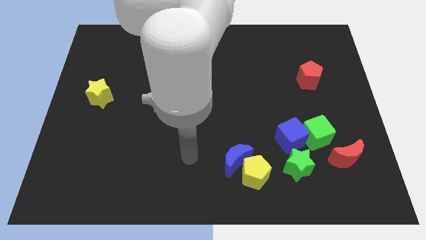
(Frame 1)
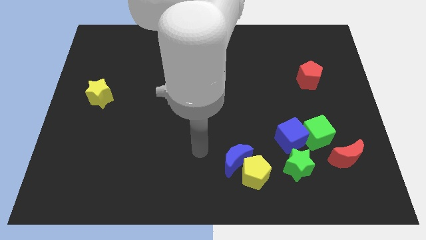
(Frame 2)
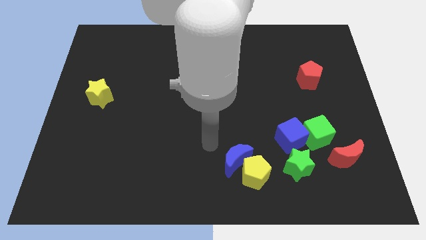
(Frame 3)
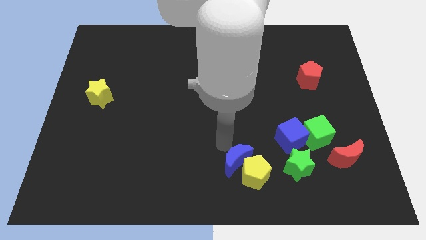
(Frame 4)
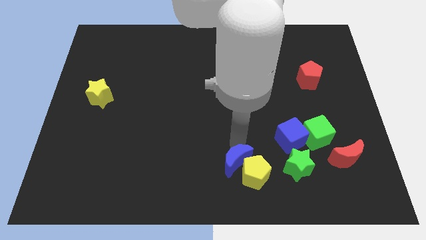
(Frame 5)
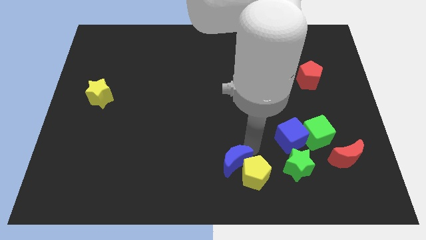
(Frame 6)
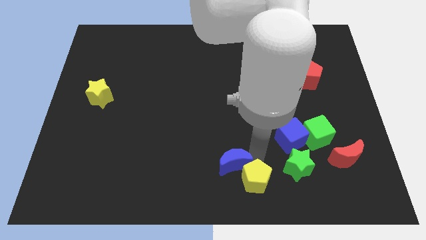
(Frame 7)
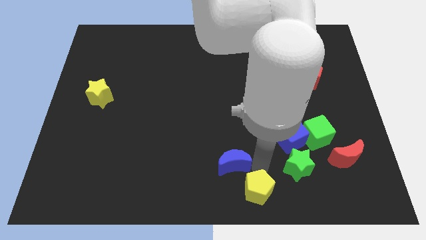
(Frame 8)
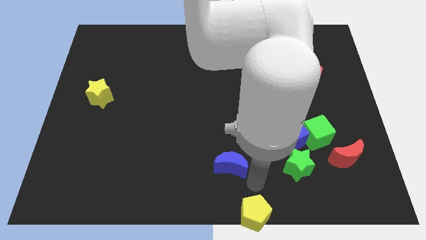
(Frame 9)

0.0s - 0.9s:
move the blue moon away from the yellow pentagon

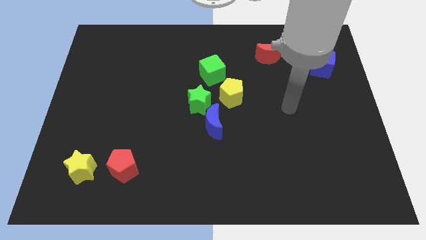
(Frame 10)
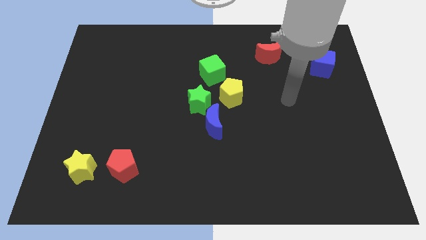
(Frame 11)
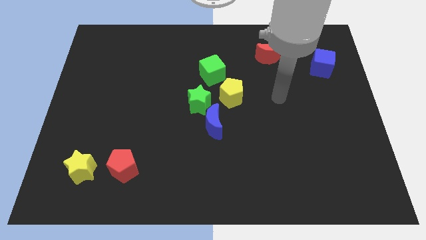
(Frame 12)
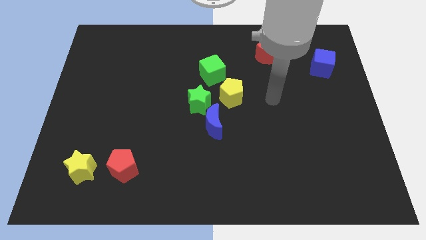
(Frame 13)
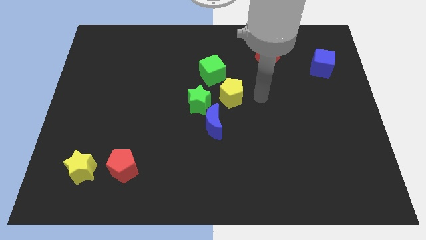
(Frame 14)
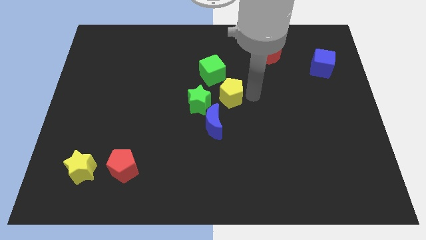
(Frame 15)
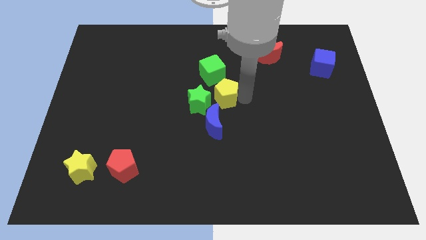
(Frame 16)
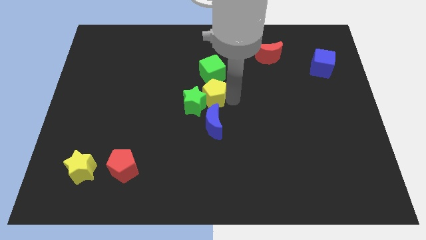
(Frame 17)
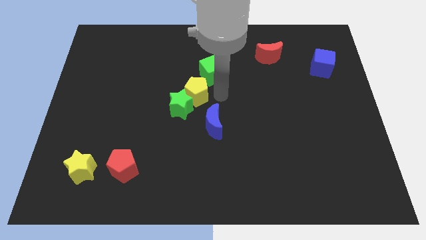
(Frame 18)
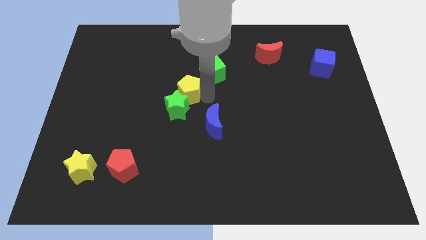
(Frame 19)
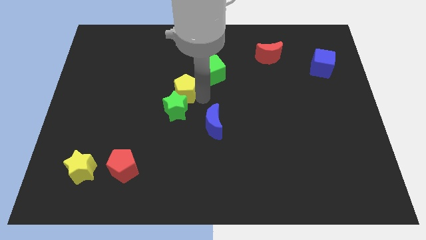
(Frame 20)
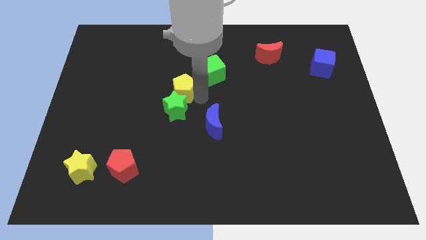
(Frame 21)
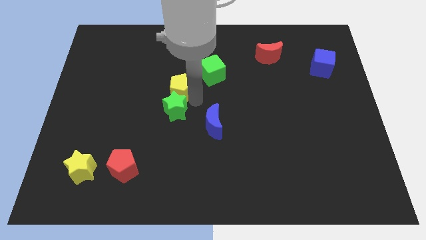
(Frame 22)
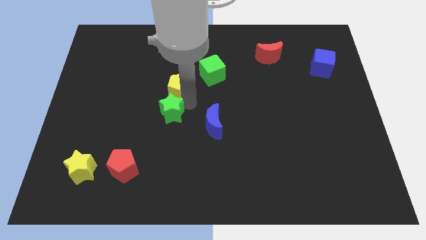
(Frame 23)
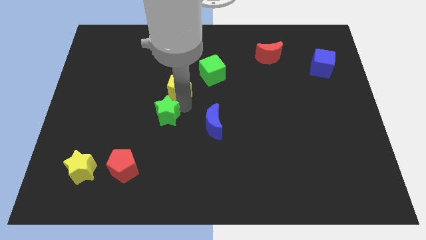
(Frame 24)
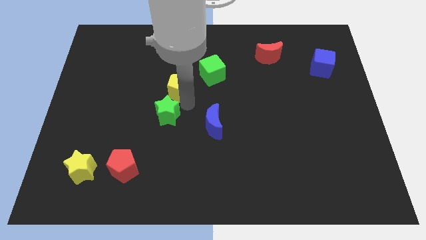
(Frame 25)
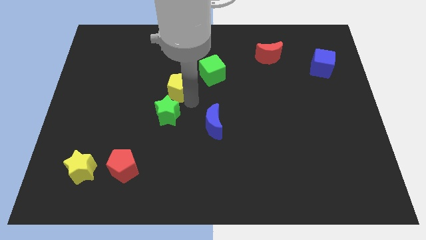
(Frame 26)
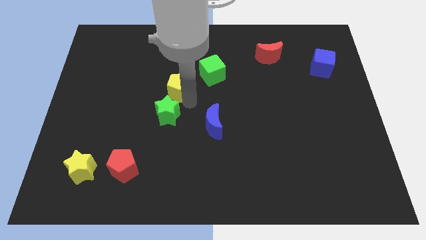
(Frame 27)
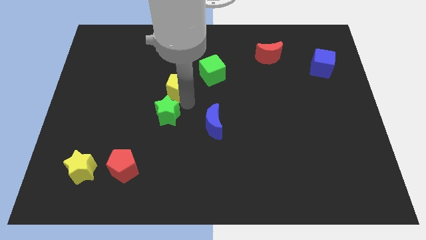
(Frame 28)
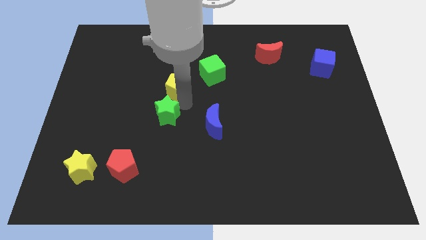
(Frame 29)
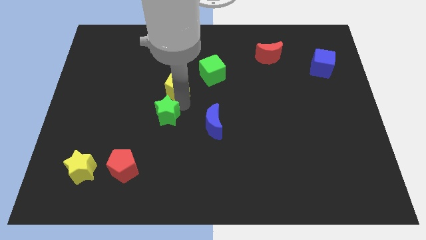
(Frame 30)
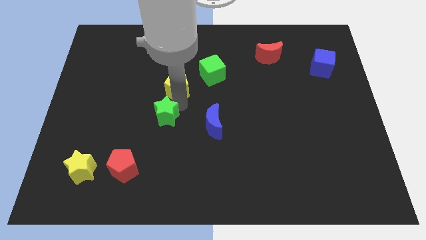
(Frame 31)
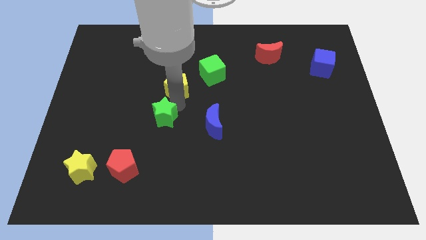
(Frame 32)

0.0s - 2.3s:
move the green star away from the group

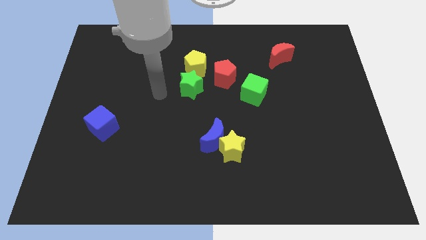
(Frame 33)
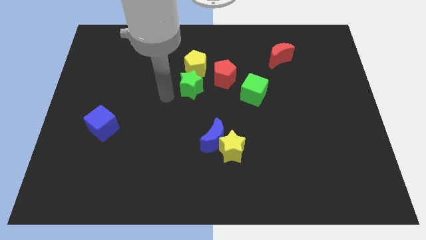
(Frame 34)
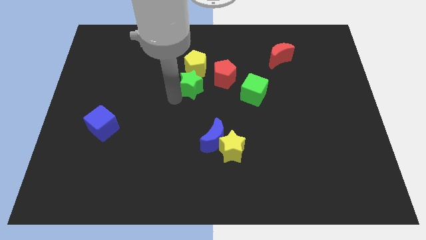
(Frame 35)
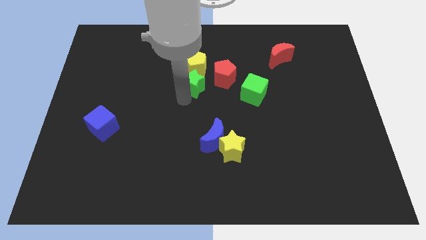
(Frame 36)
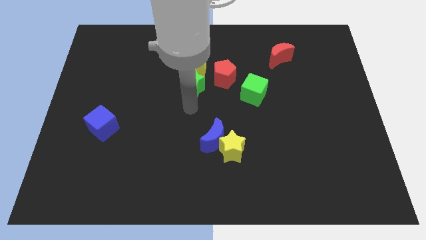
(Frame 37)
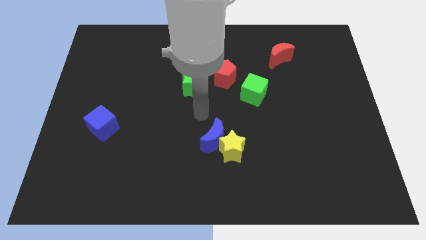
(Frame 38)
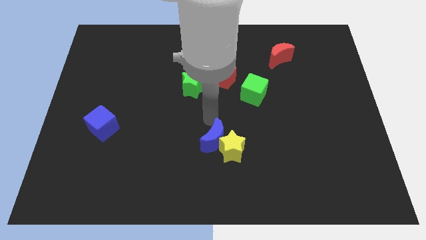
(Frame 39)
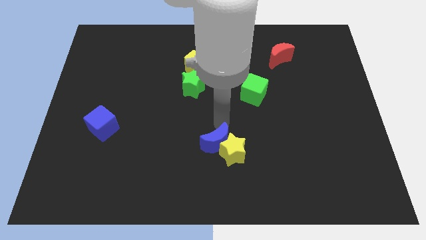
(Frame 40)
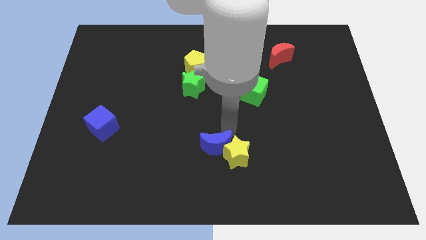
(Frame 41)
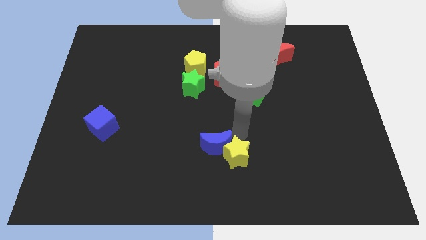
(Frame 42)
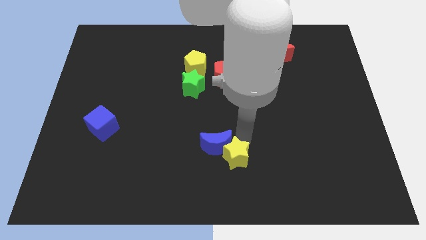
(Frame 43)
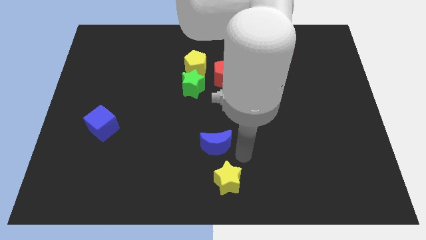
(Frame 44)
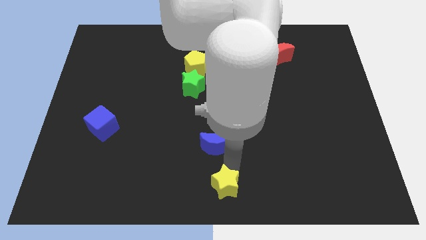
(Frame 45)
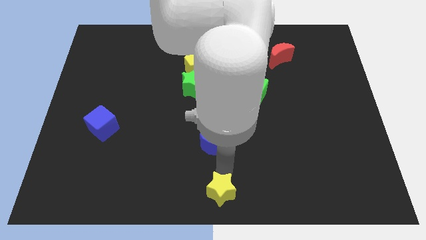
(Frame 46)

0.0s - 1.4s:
move the blue moon away from the yellow star

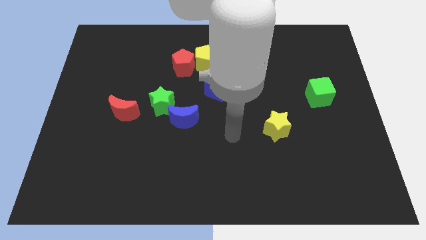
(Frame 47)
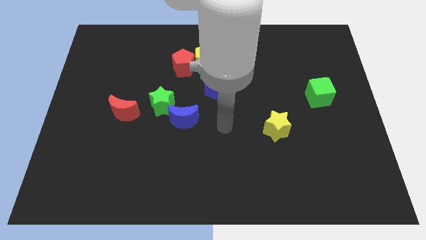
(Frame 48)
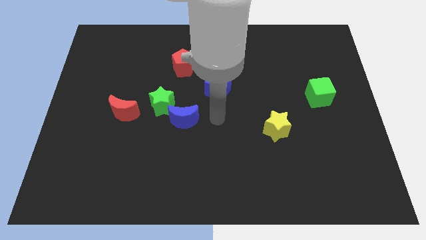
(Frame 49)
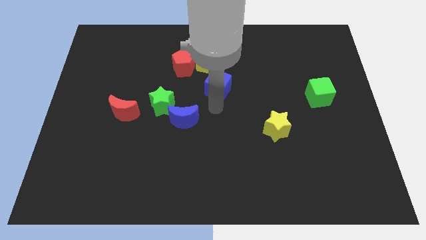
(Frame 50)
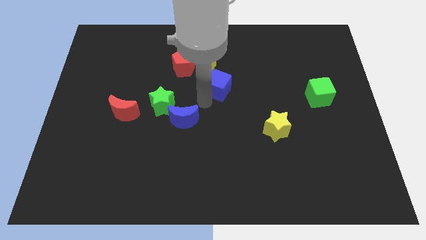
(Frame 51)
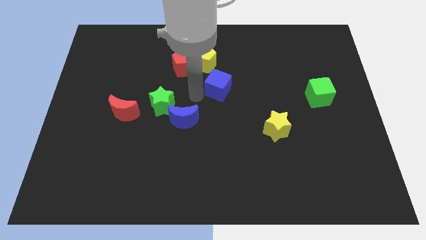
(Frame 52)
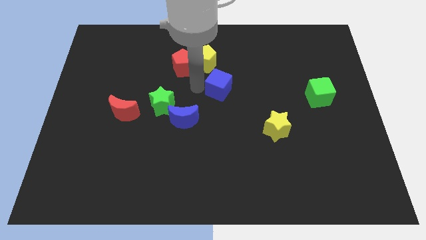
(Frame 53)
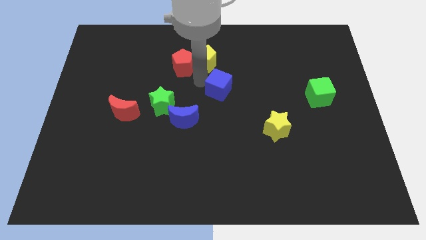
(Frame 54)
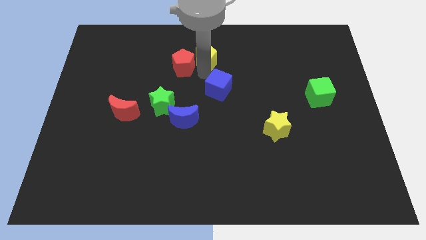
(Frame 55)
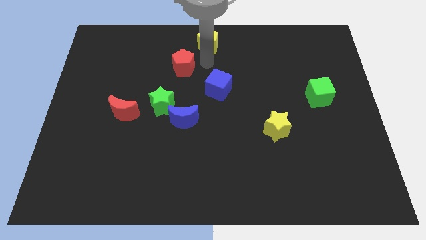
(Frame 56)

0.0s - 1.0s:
pull the red pentagon apart from the yellow pentagon

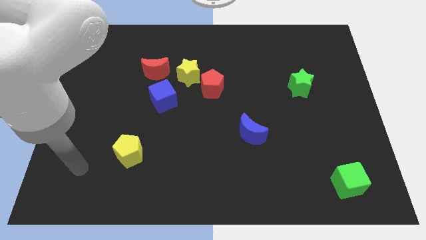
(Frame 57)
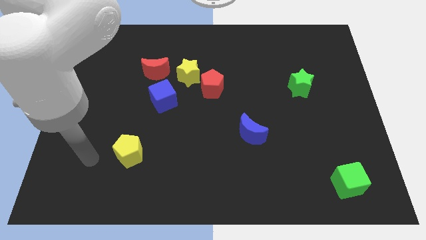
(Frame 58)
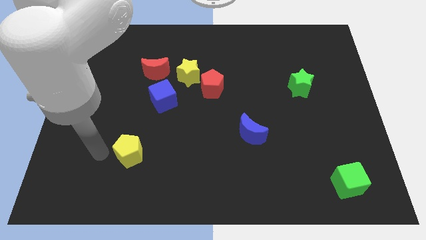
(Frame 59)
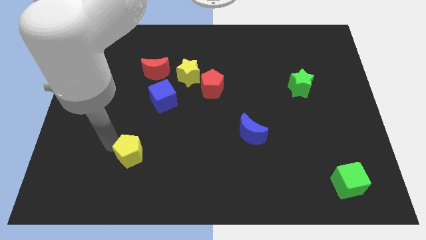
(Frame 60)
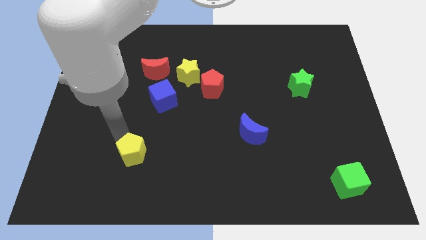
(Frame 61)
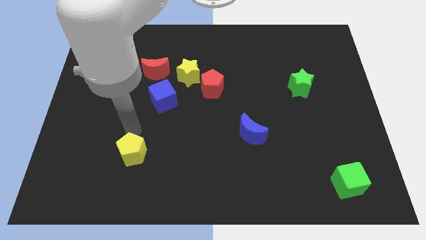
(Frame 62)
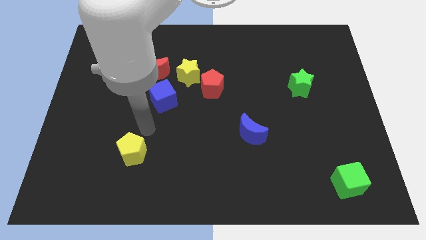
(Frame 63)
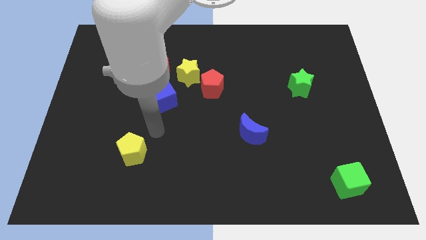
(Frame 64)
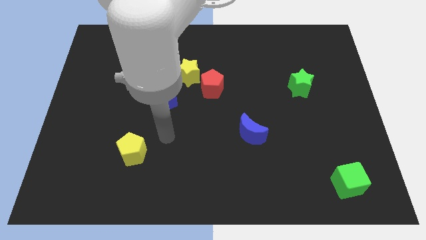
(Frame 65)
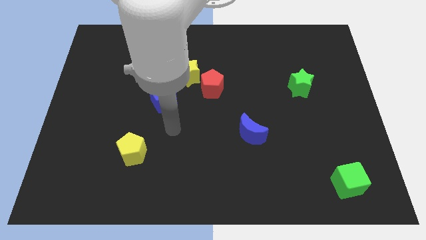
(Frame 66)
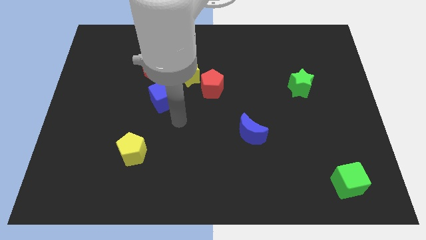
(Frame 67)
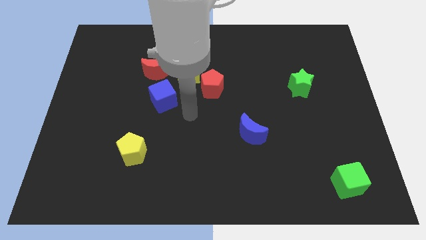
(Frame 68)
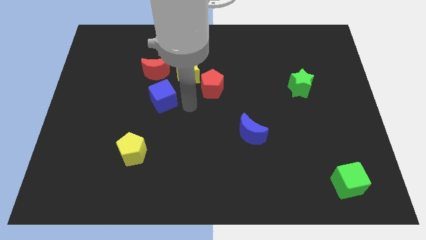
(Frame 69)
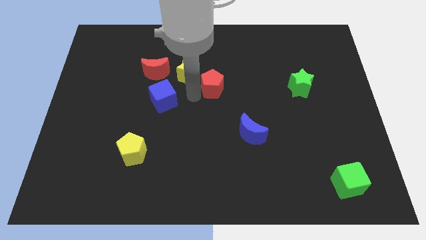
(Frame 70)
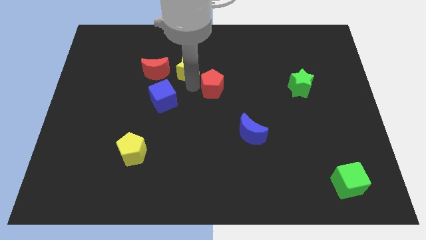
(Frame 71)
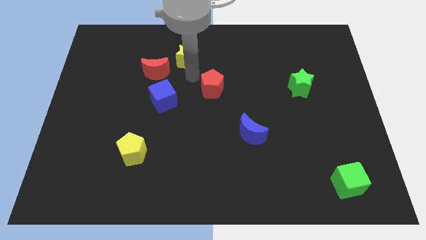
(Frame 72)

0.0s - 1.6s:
move the red pentagon away from the yellow star

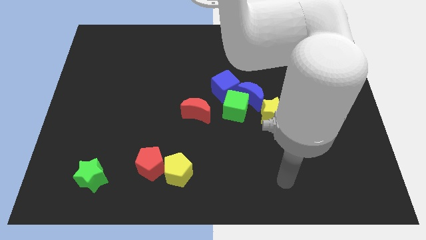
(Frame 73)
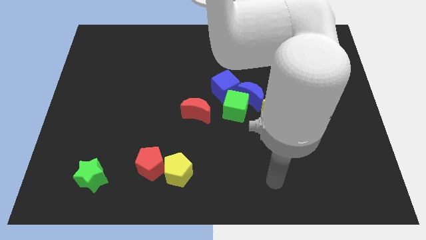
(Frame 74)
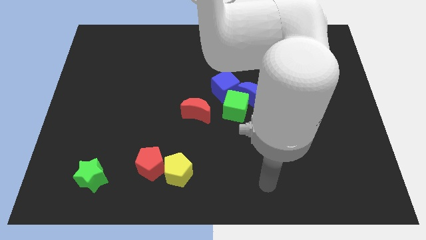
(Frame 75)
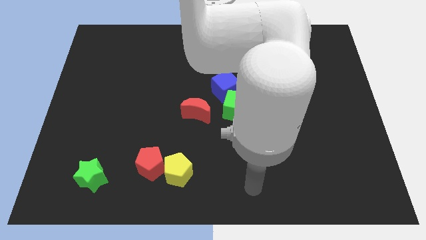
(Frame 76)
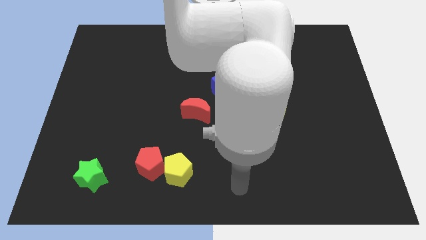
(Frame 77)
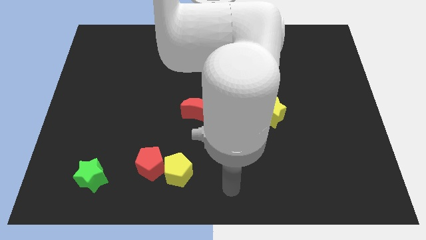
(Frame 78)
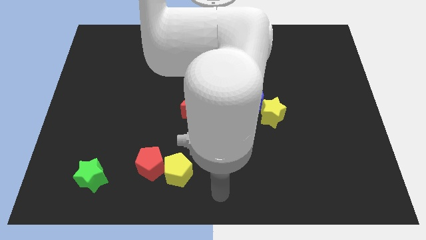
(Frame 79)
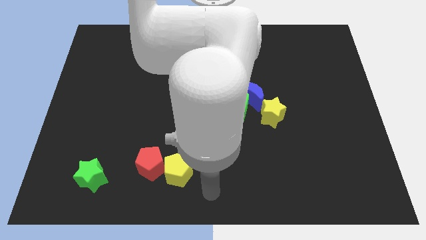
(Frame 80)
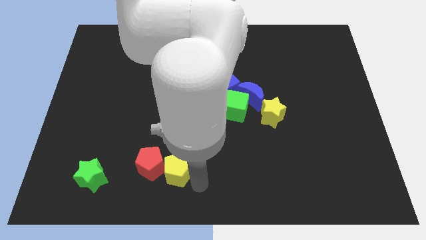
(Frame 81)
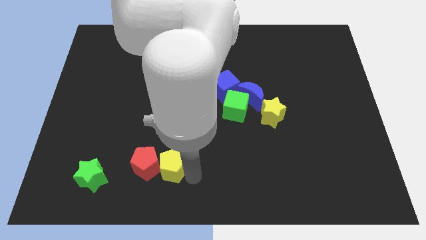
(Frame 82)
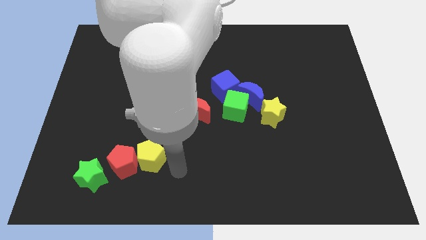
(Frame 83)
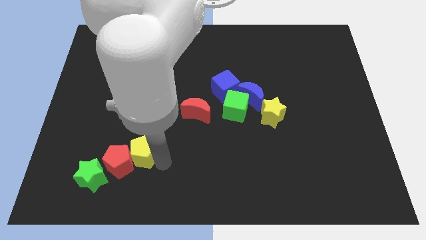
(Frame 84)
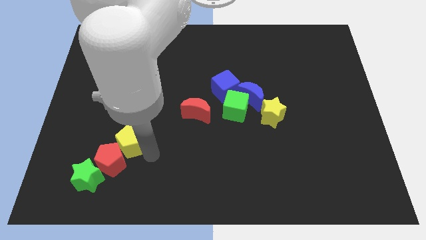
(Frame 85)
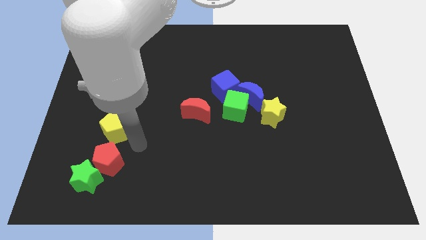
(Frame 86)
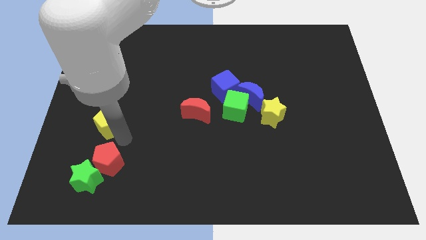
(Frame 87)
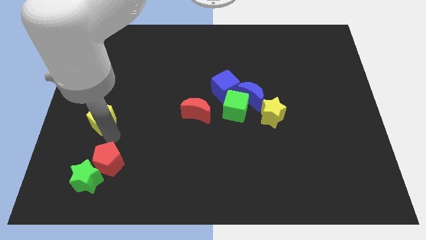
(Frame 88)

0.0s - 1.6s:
move the red pentagon away from the yellow pentagon

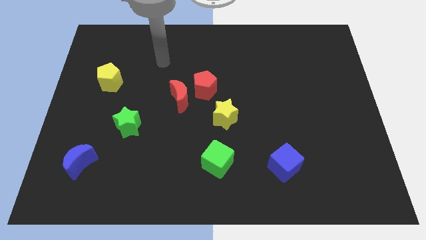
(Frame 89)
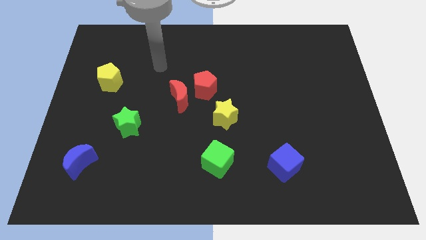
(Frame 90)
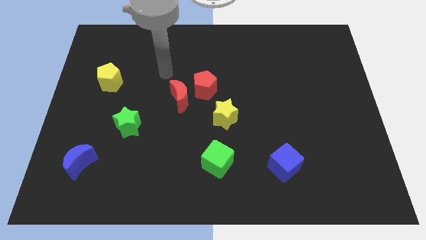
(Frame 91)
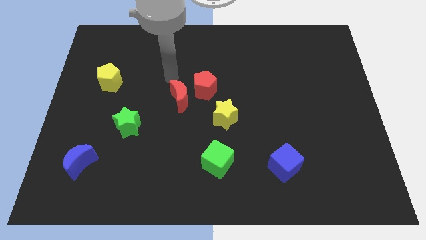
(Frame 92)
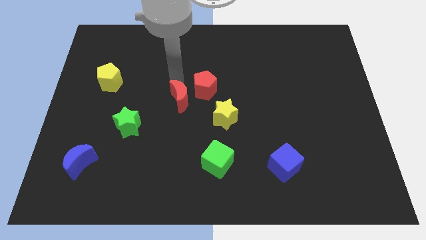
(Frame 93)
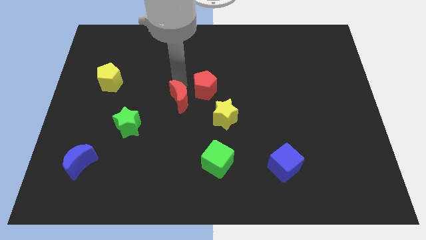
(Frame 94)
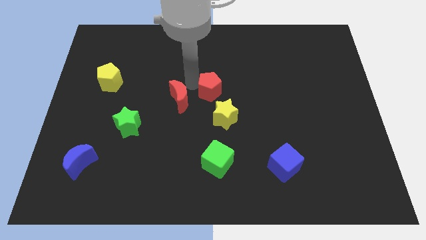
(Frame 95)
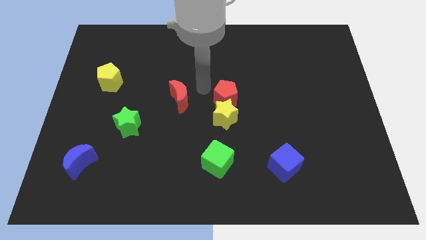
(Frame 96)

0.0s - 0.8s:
move the red moon away from the red pentagon
